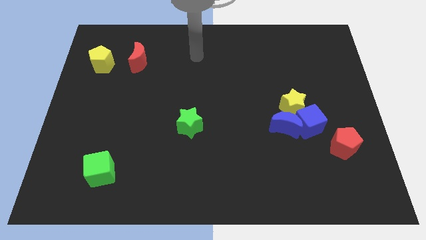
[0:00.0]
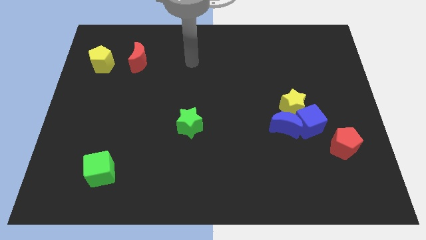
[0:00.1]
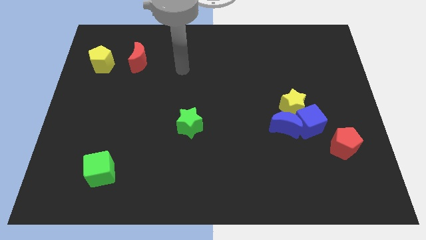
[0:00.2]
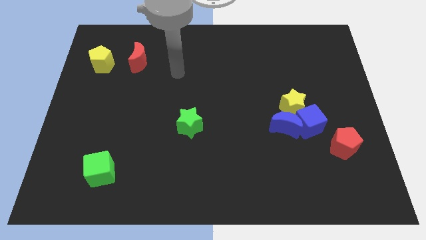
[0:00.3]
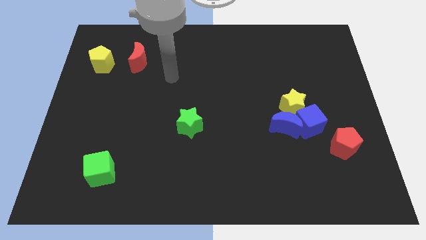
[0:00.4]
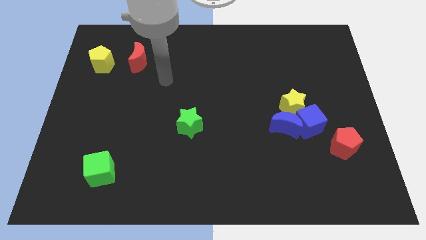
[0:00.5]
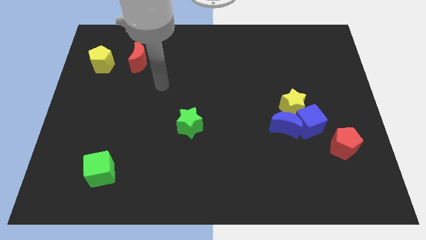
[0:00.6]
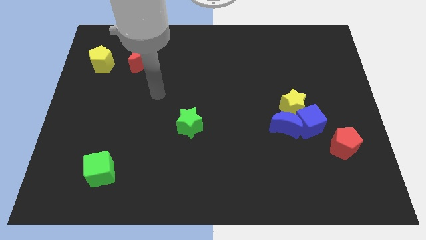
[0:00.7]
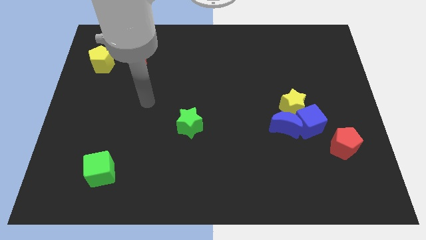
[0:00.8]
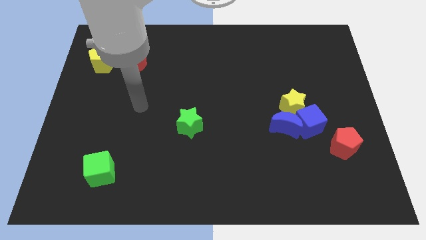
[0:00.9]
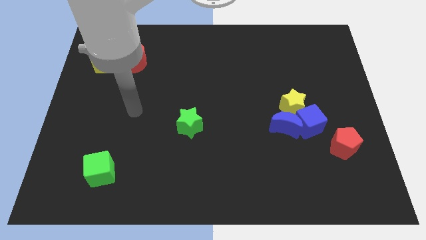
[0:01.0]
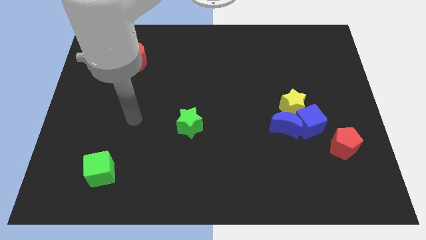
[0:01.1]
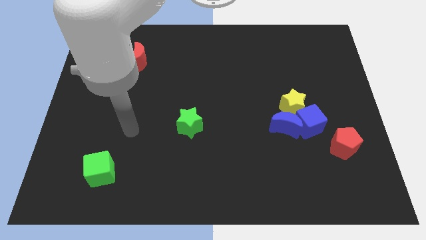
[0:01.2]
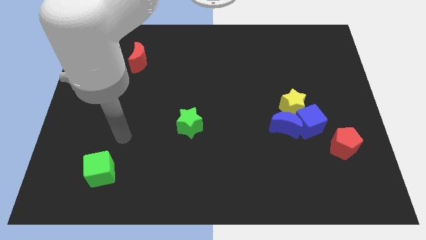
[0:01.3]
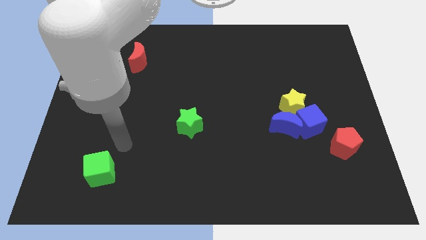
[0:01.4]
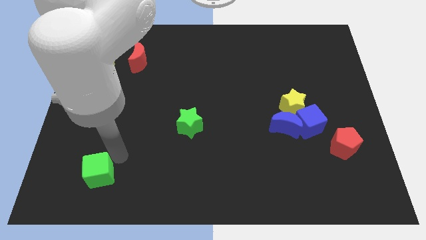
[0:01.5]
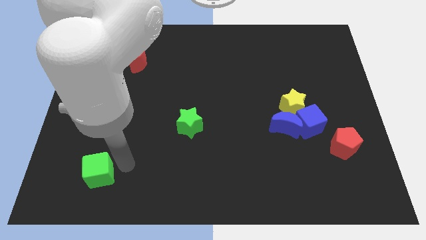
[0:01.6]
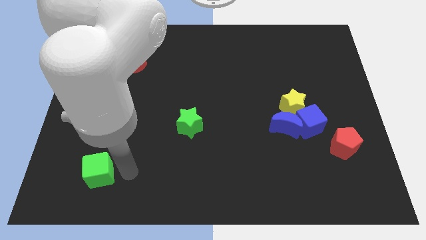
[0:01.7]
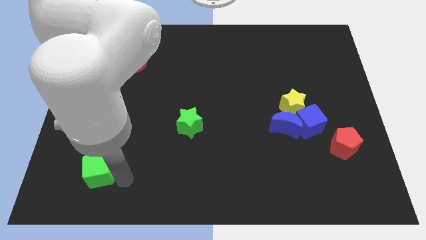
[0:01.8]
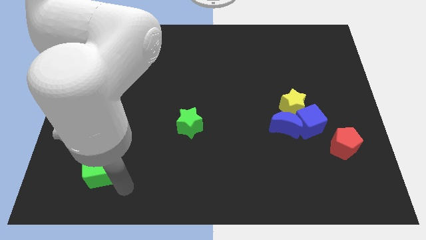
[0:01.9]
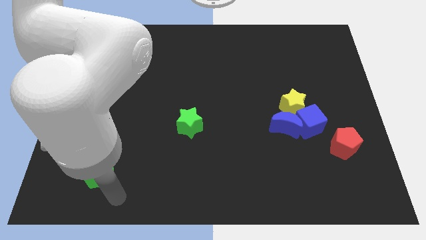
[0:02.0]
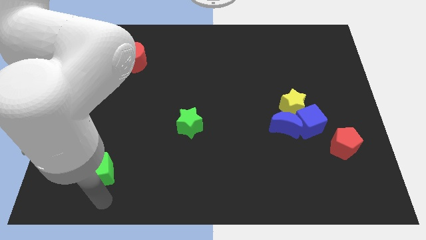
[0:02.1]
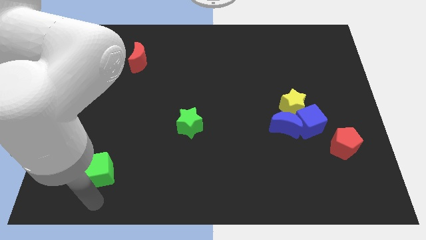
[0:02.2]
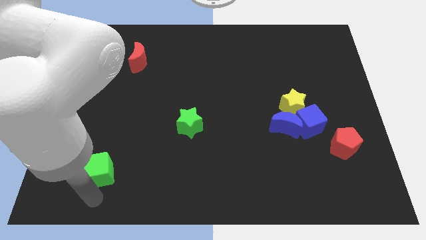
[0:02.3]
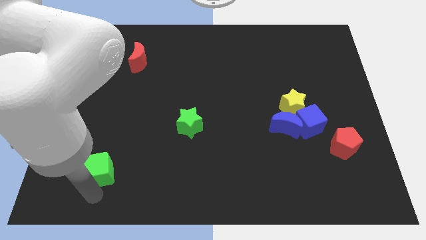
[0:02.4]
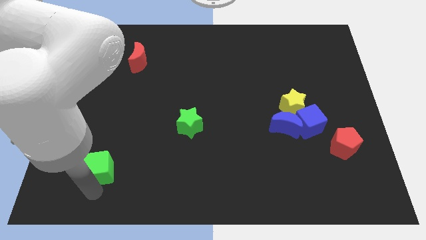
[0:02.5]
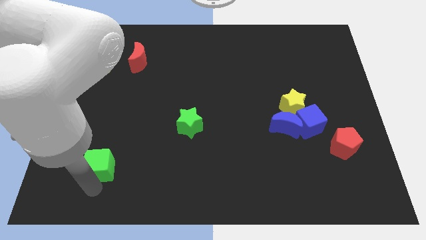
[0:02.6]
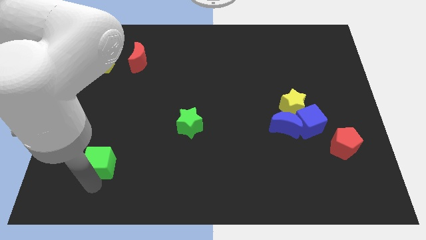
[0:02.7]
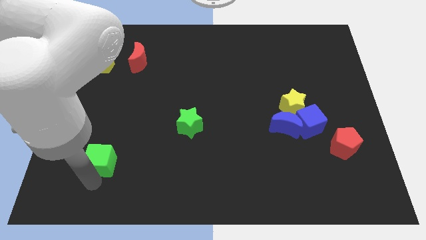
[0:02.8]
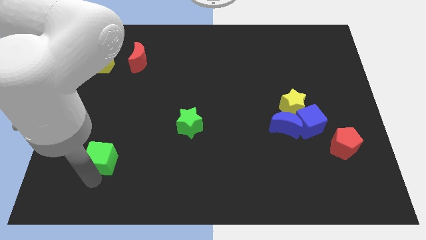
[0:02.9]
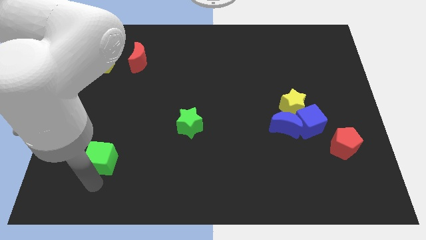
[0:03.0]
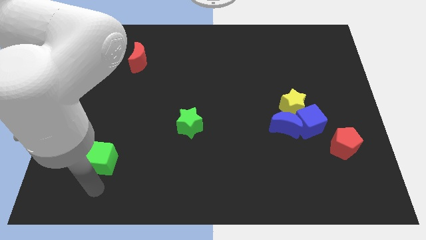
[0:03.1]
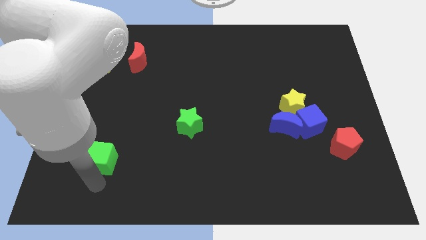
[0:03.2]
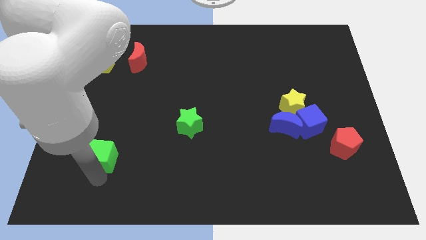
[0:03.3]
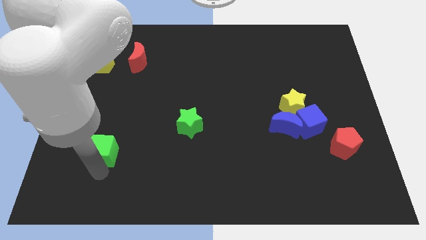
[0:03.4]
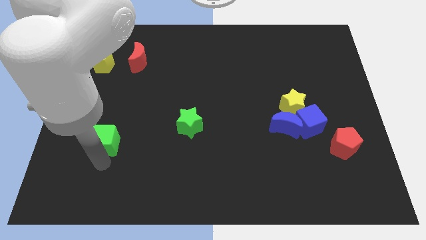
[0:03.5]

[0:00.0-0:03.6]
slightly slide the green cube up

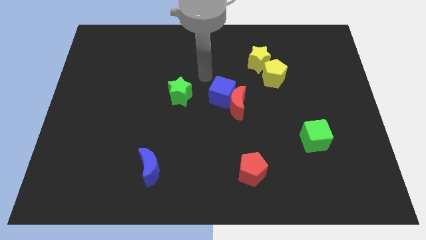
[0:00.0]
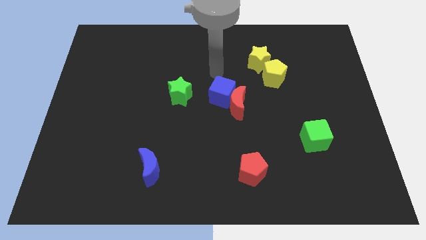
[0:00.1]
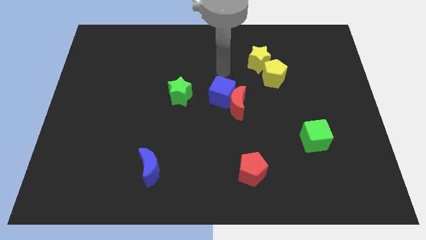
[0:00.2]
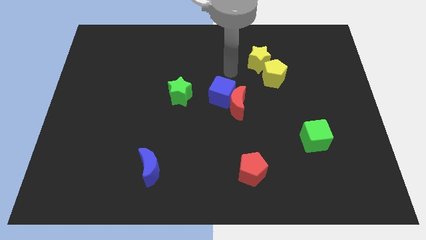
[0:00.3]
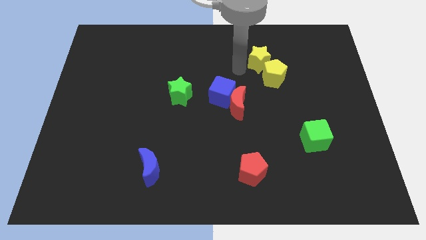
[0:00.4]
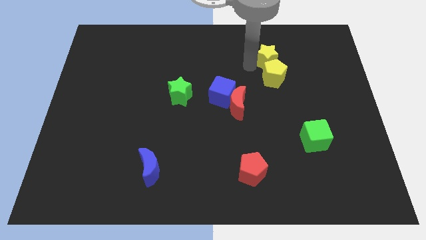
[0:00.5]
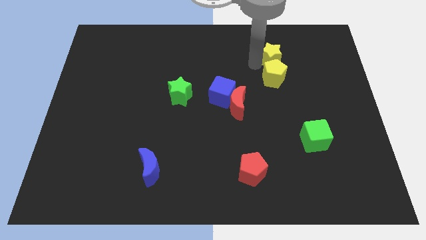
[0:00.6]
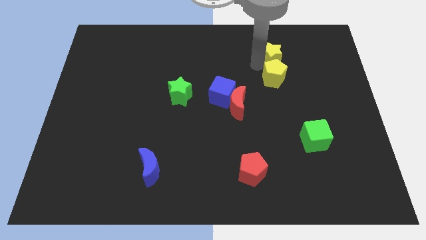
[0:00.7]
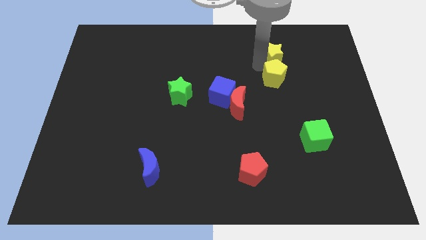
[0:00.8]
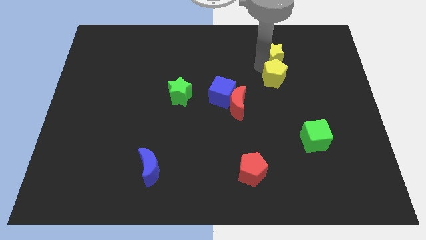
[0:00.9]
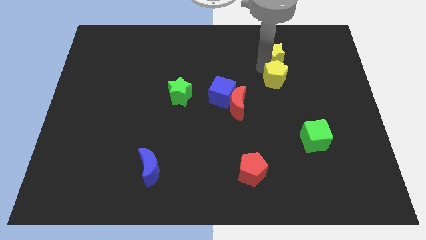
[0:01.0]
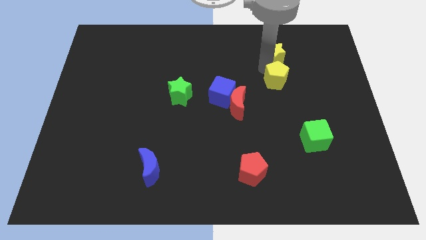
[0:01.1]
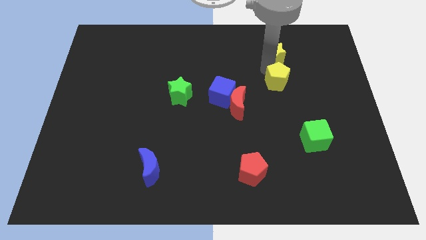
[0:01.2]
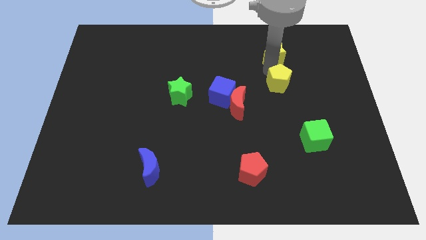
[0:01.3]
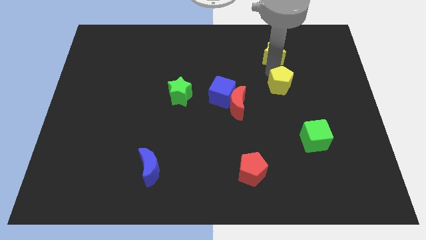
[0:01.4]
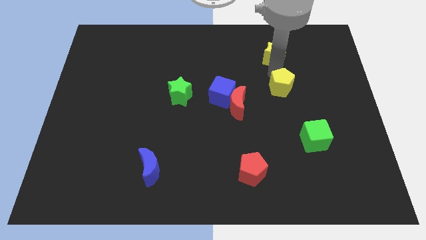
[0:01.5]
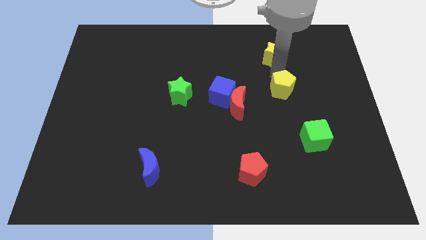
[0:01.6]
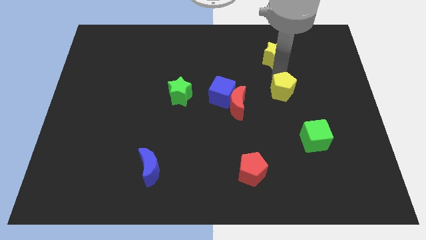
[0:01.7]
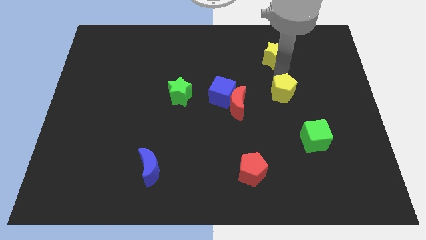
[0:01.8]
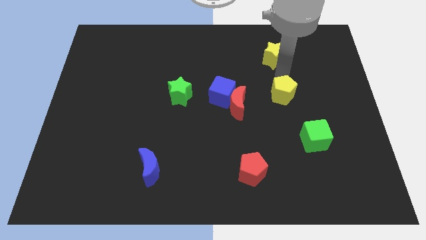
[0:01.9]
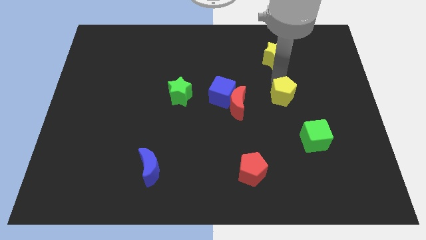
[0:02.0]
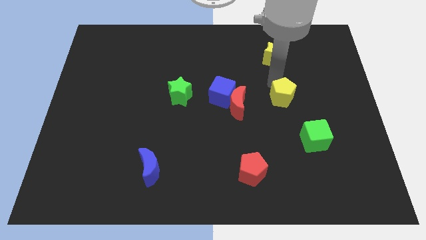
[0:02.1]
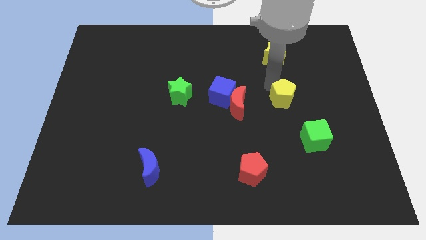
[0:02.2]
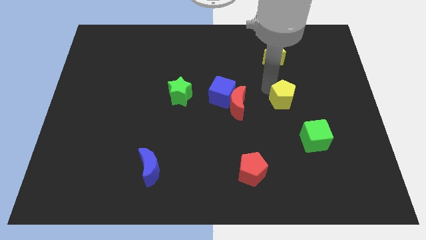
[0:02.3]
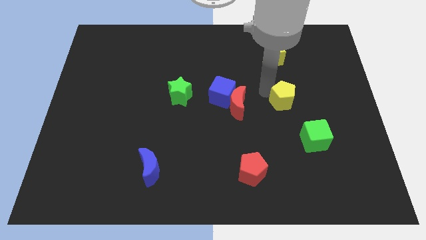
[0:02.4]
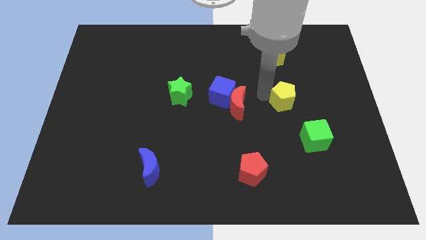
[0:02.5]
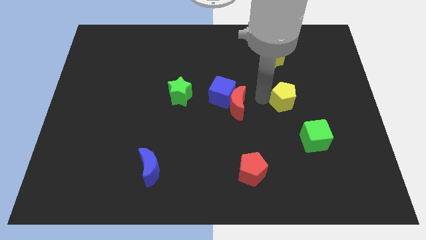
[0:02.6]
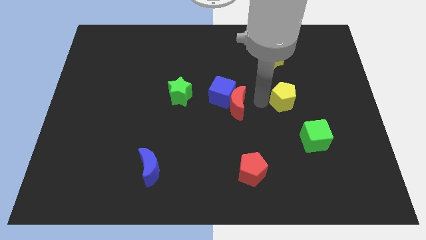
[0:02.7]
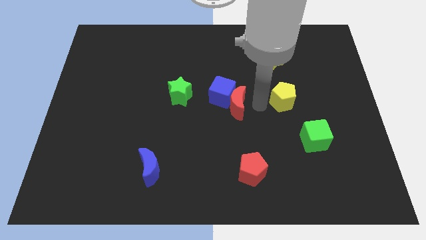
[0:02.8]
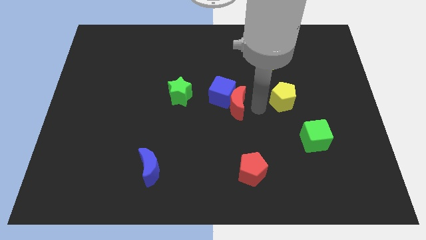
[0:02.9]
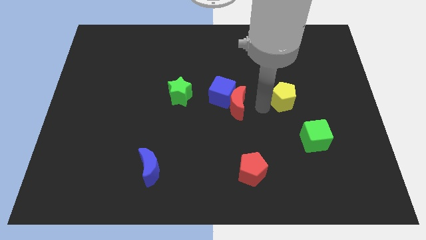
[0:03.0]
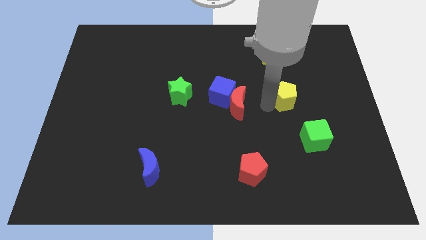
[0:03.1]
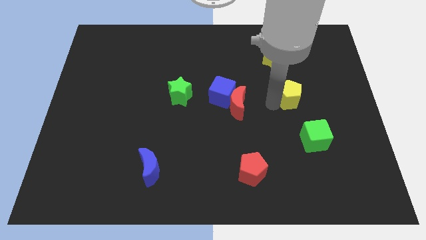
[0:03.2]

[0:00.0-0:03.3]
push the yellow pentagon downwards and then to the right a little

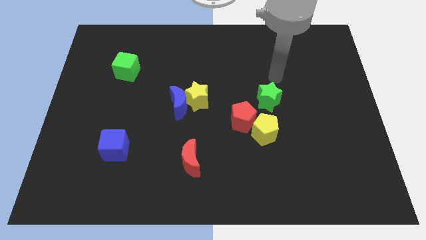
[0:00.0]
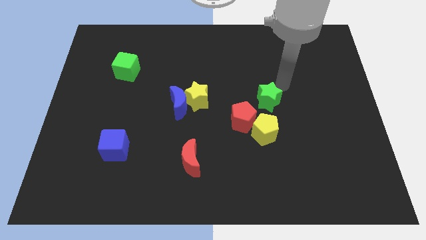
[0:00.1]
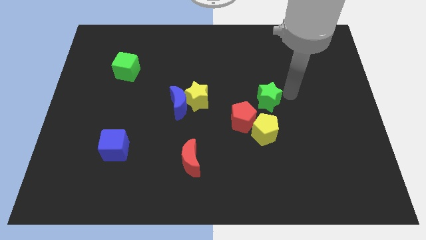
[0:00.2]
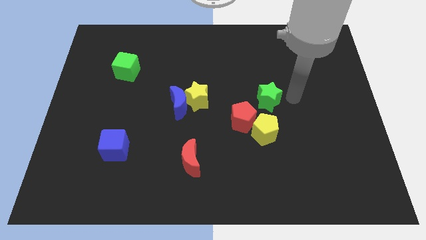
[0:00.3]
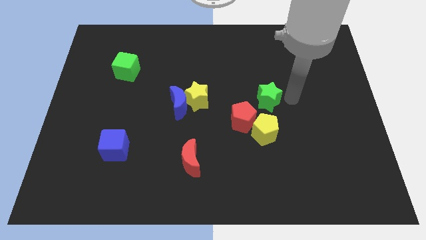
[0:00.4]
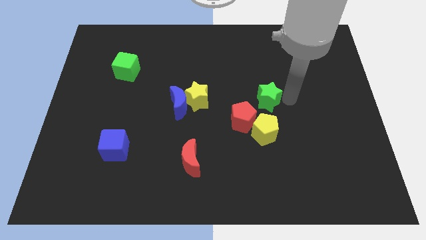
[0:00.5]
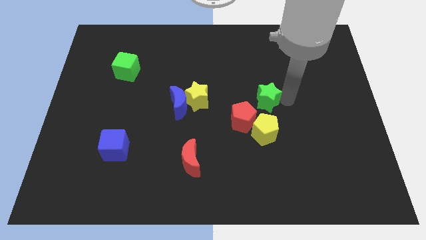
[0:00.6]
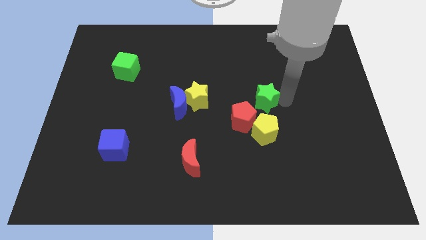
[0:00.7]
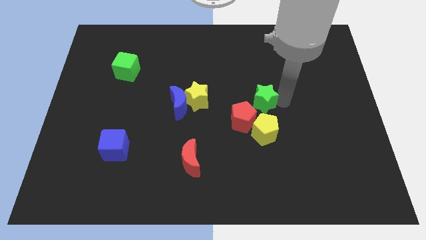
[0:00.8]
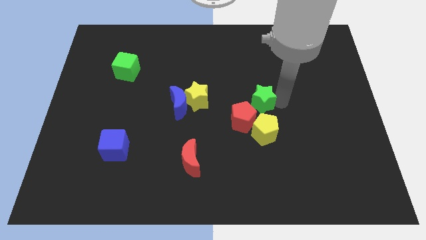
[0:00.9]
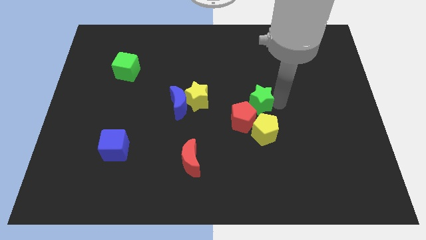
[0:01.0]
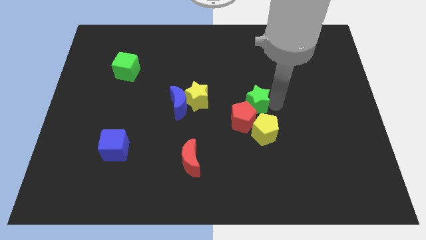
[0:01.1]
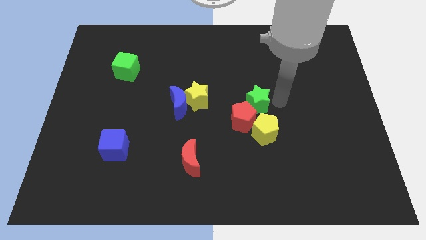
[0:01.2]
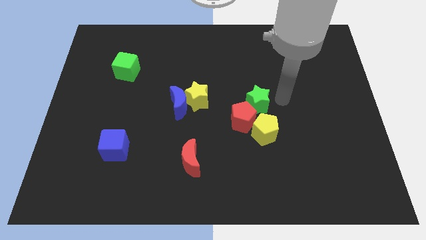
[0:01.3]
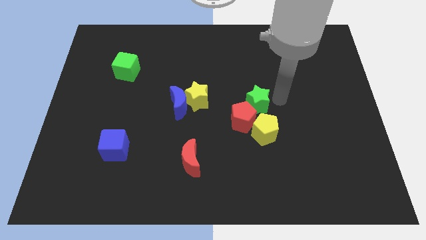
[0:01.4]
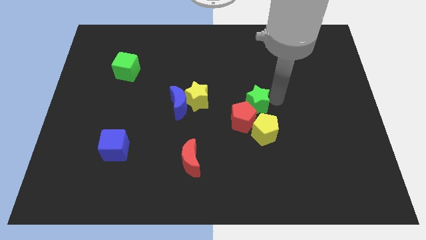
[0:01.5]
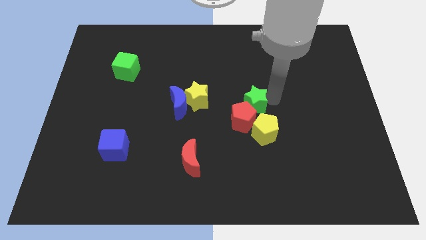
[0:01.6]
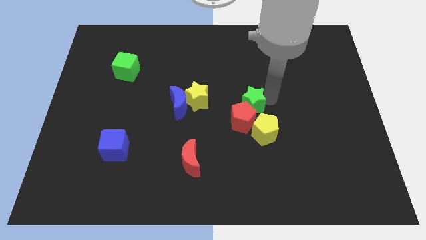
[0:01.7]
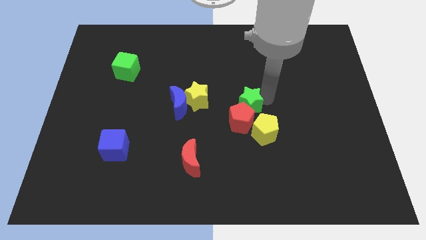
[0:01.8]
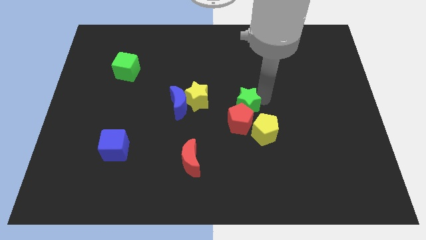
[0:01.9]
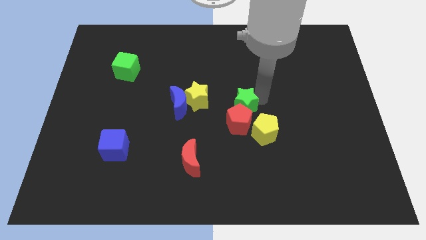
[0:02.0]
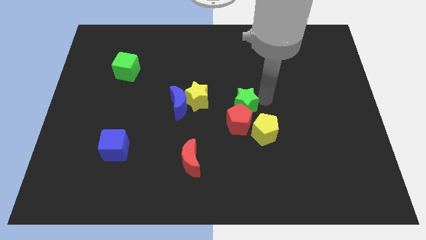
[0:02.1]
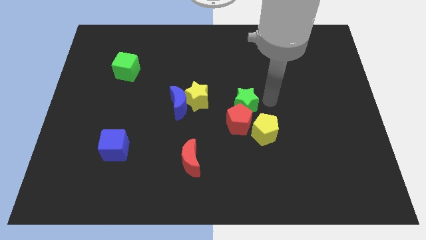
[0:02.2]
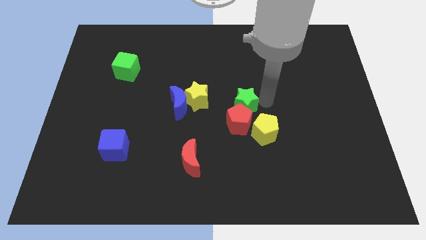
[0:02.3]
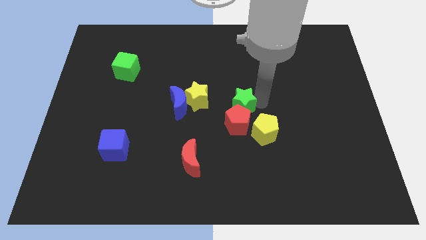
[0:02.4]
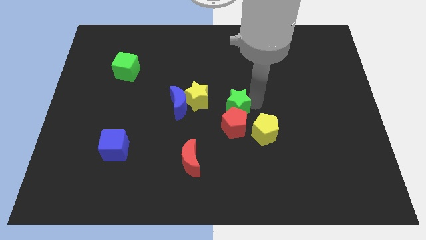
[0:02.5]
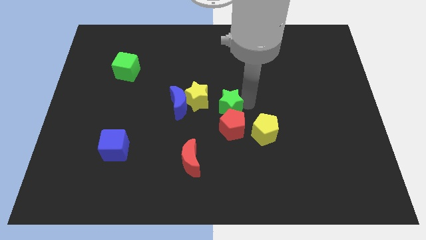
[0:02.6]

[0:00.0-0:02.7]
move the green star down and to the left a little bit
